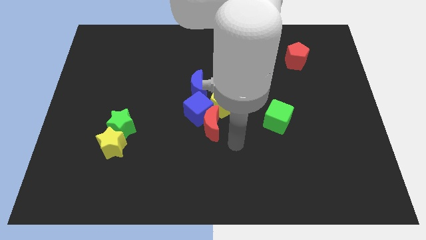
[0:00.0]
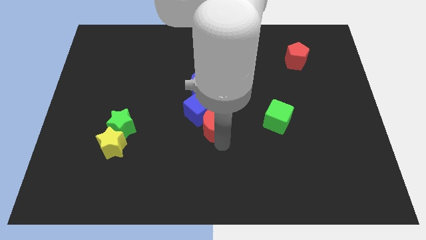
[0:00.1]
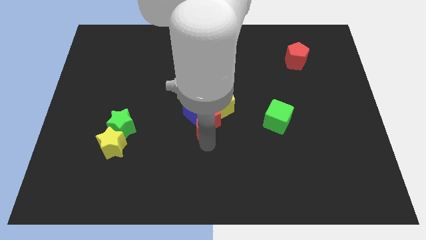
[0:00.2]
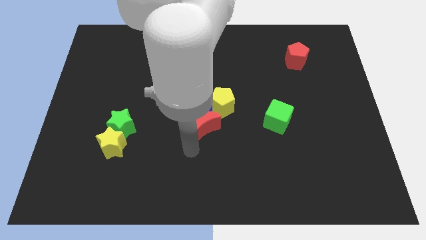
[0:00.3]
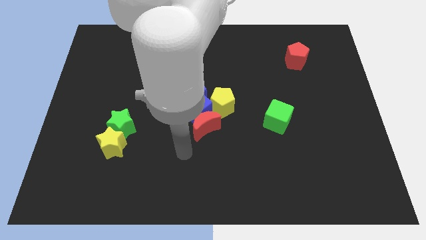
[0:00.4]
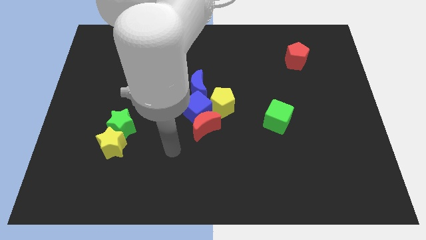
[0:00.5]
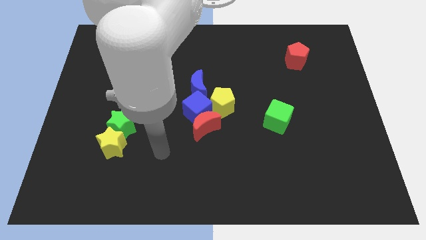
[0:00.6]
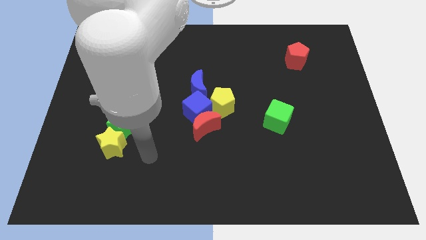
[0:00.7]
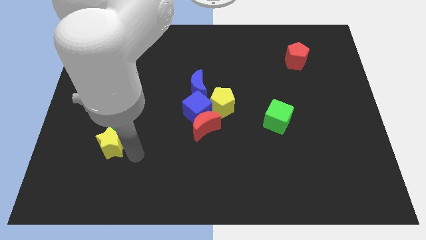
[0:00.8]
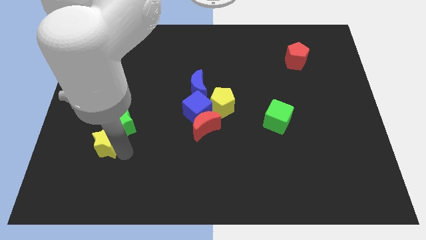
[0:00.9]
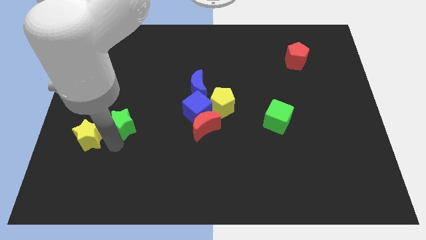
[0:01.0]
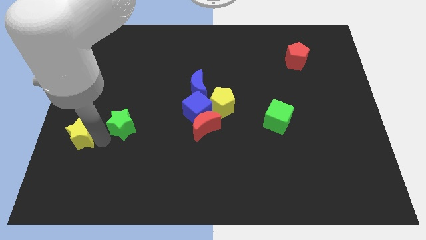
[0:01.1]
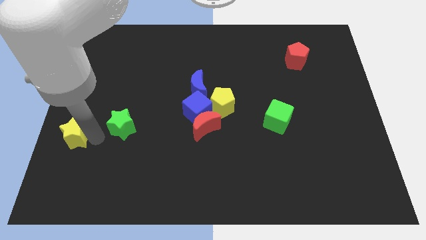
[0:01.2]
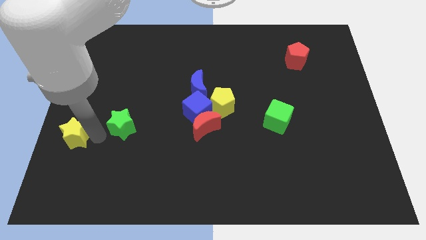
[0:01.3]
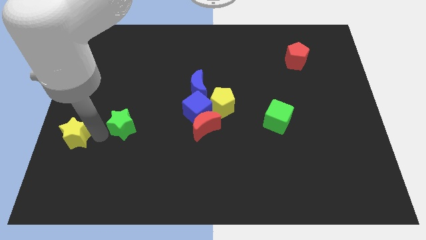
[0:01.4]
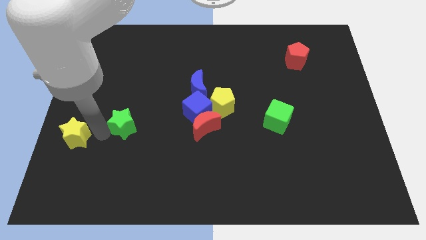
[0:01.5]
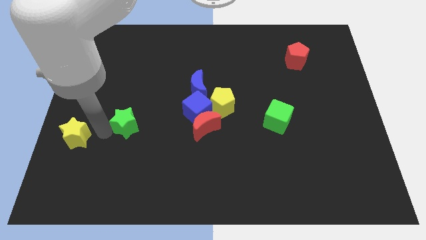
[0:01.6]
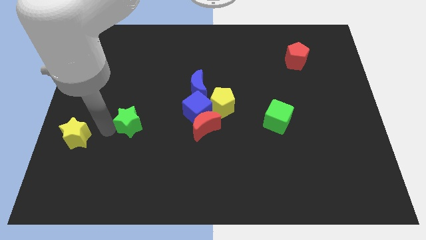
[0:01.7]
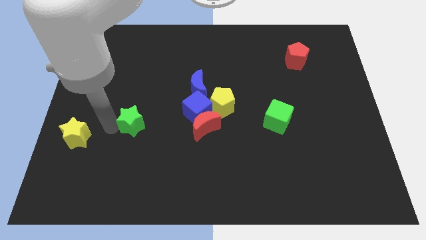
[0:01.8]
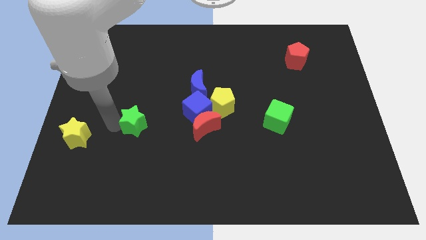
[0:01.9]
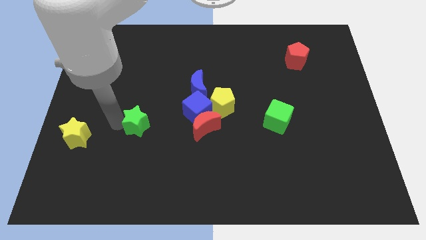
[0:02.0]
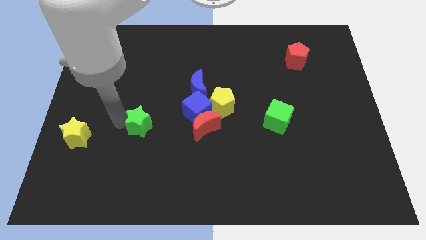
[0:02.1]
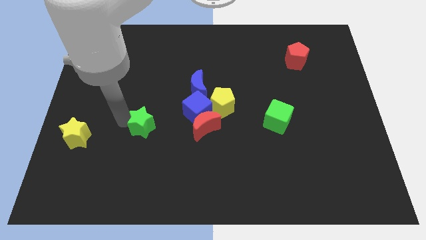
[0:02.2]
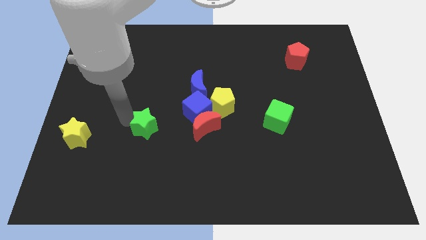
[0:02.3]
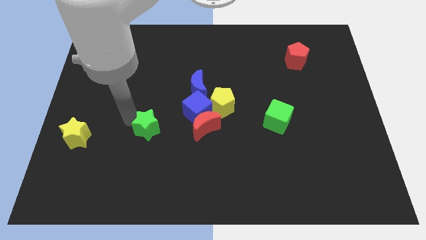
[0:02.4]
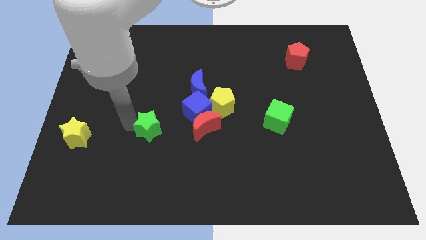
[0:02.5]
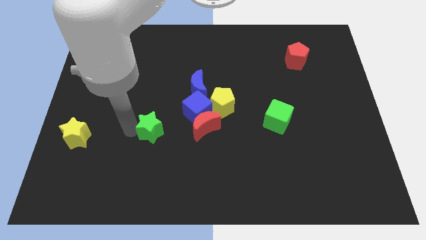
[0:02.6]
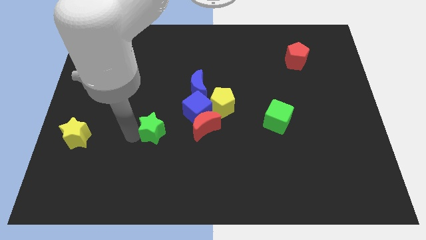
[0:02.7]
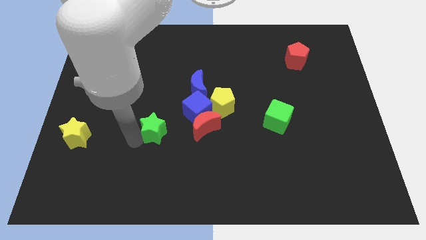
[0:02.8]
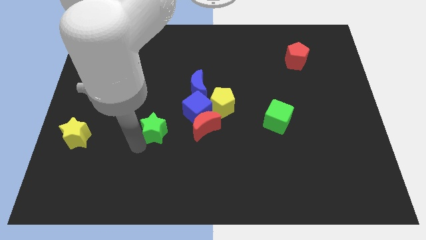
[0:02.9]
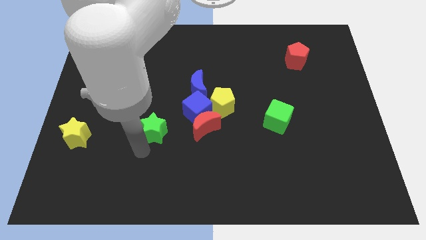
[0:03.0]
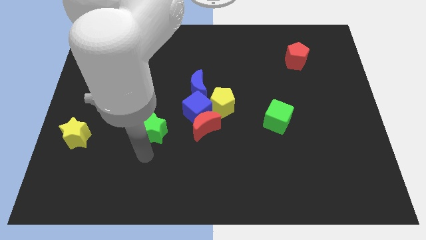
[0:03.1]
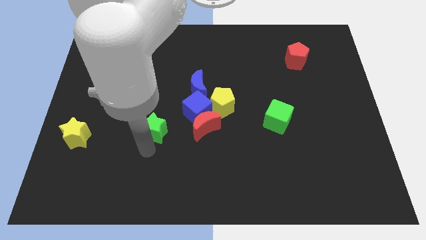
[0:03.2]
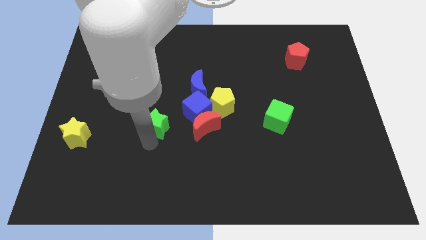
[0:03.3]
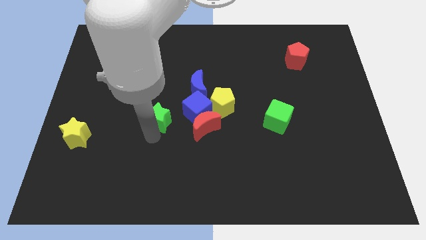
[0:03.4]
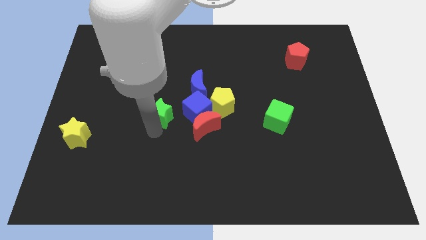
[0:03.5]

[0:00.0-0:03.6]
push the green star to the left of the yellow pentagon

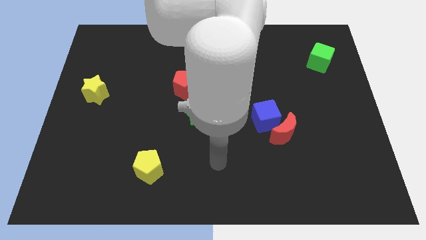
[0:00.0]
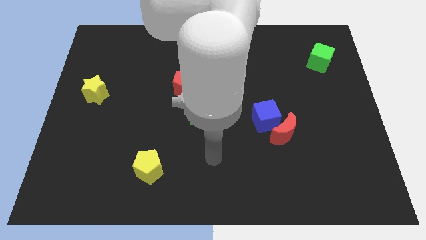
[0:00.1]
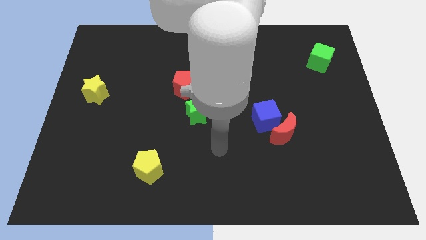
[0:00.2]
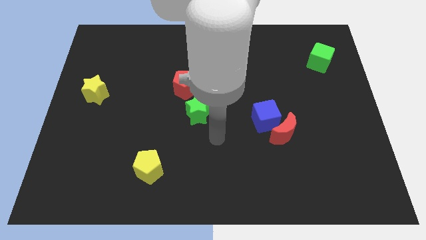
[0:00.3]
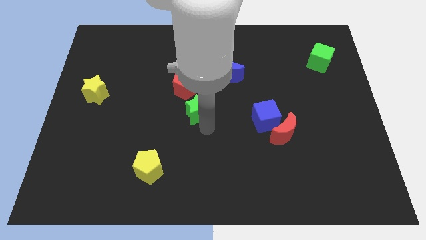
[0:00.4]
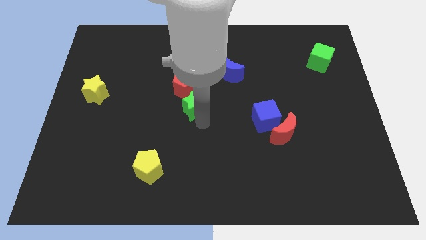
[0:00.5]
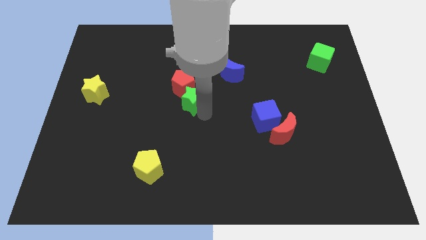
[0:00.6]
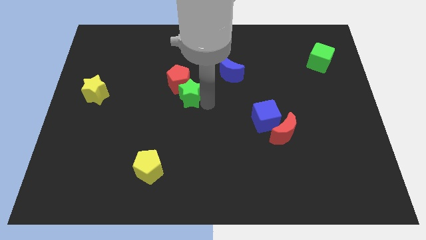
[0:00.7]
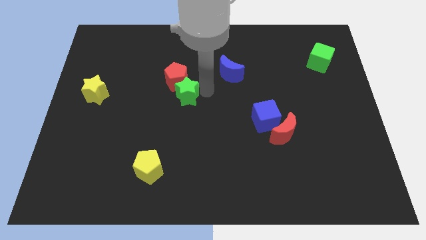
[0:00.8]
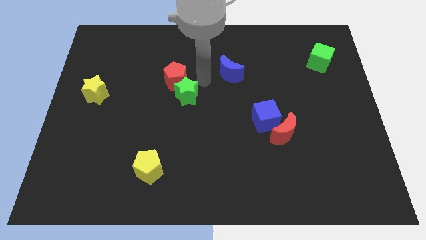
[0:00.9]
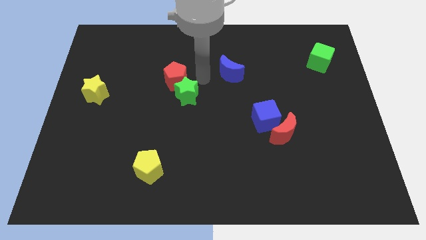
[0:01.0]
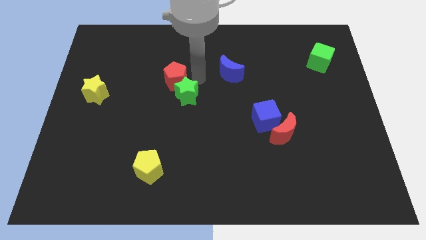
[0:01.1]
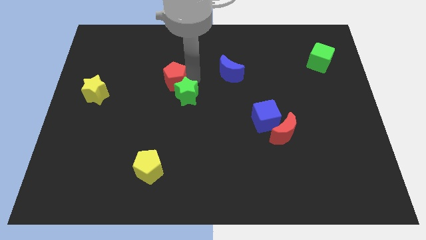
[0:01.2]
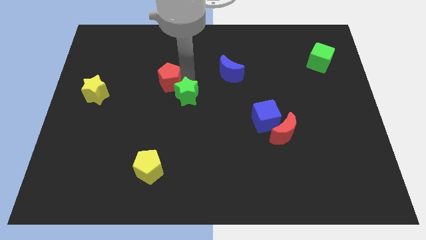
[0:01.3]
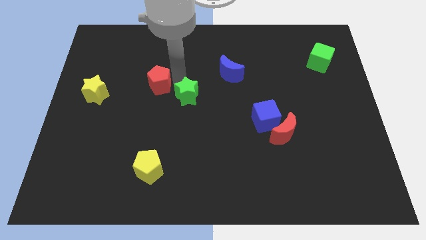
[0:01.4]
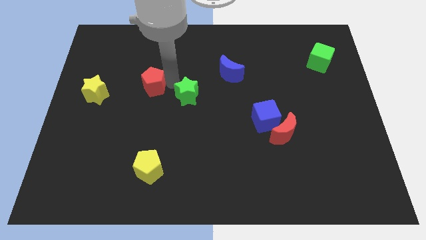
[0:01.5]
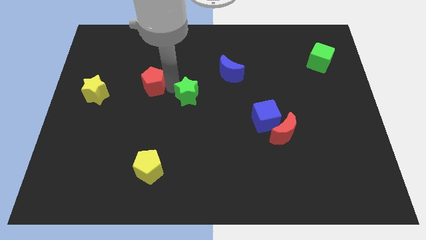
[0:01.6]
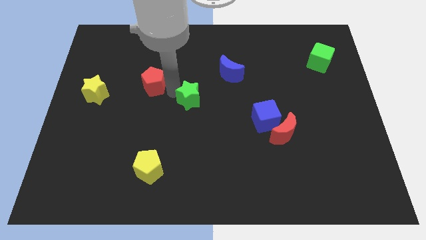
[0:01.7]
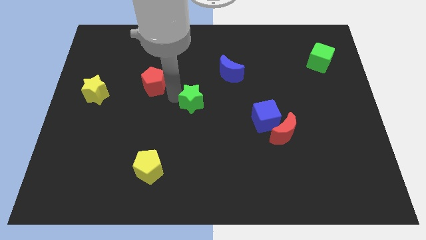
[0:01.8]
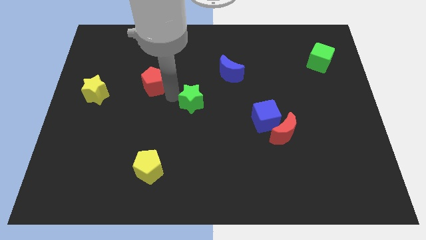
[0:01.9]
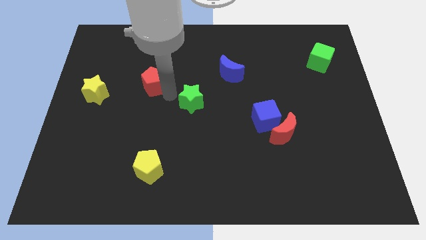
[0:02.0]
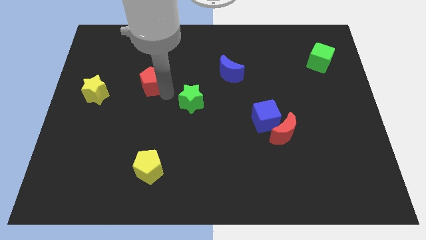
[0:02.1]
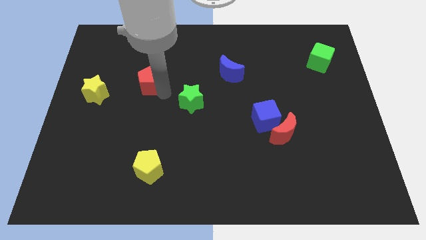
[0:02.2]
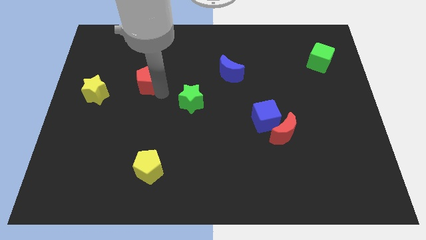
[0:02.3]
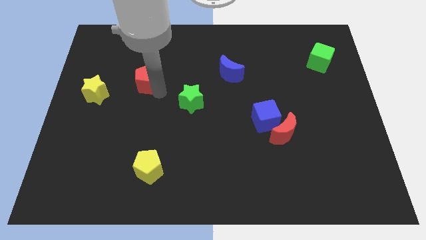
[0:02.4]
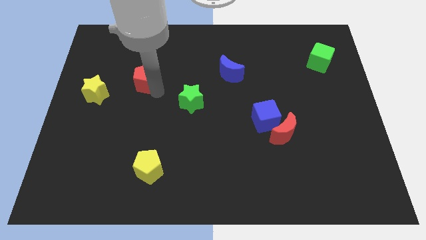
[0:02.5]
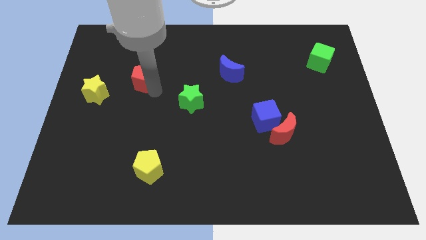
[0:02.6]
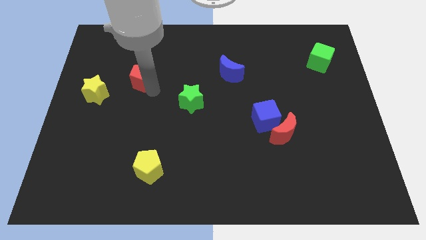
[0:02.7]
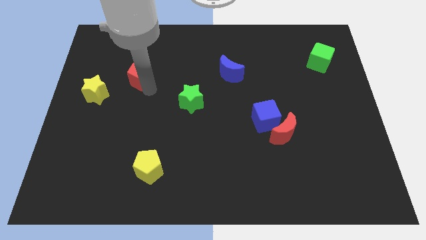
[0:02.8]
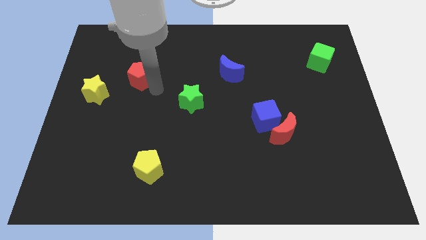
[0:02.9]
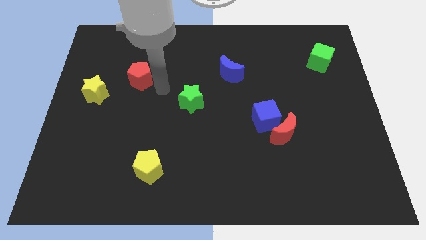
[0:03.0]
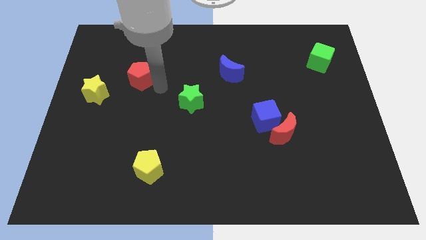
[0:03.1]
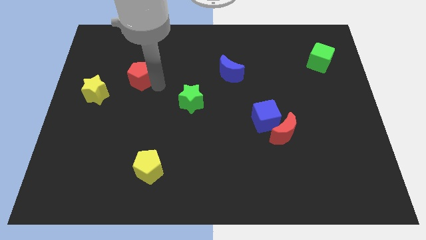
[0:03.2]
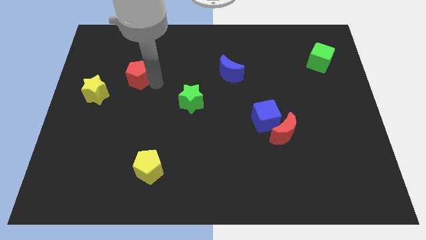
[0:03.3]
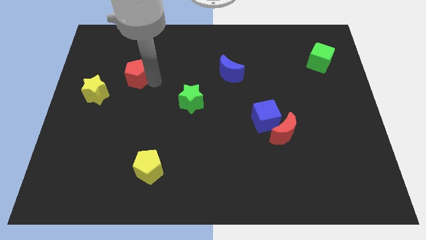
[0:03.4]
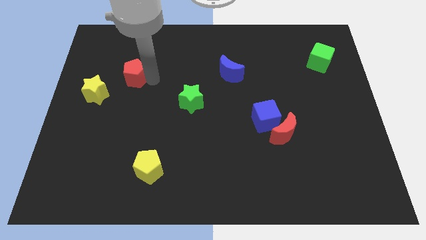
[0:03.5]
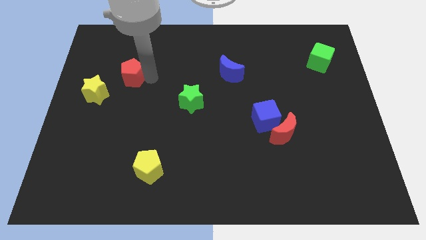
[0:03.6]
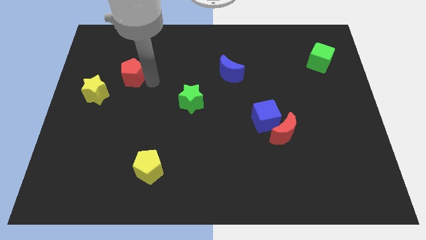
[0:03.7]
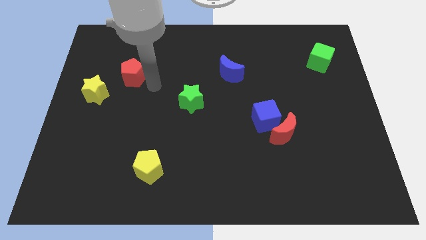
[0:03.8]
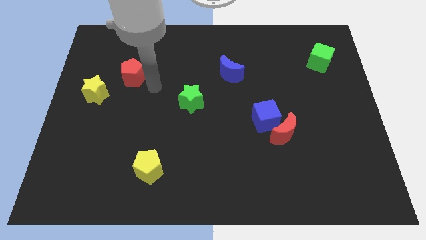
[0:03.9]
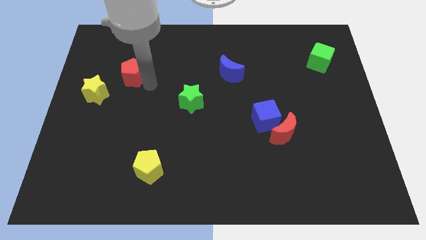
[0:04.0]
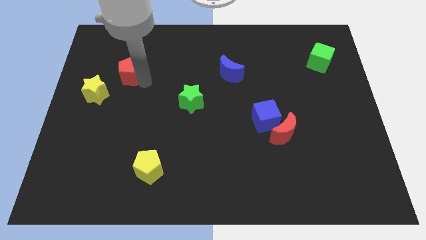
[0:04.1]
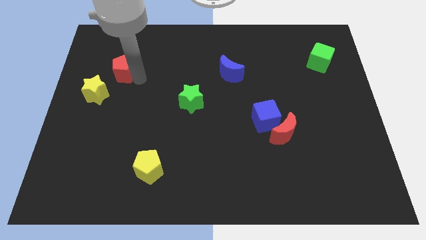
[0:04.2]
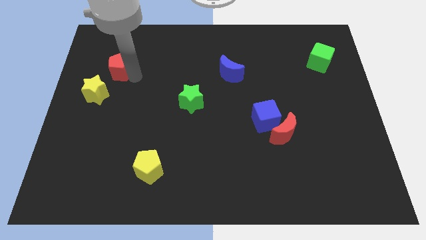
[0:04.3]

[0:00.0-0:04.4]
put the red pentagon to the top of the yellow star
